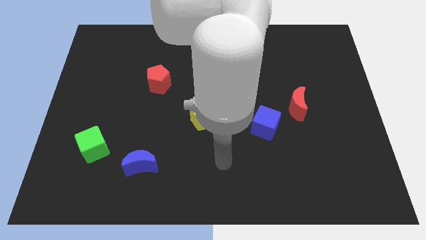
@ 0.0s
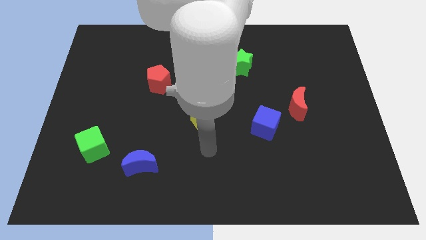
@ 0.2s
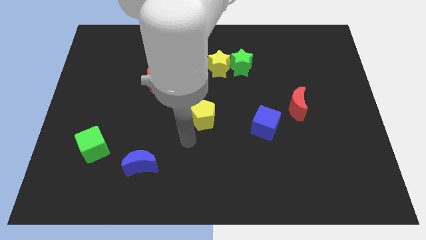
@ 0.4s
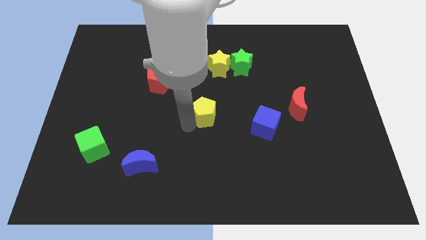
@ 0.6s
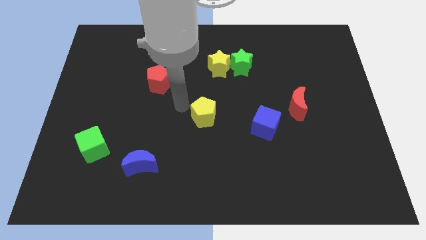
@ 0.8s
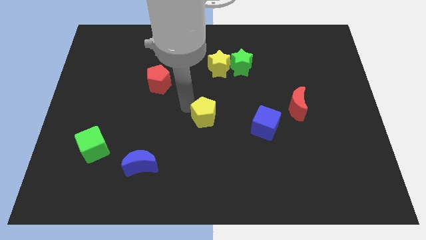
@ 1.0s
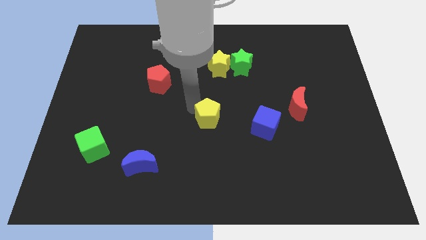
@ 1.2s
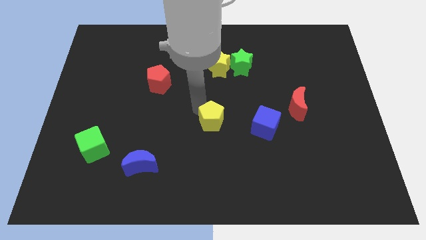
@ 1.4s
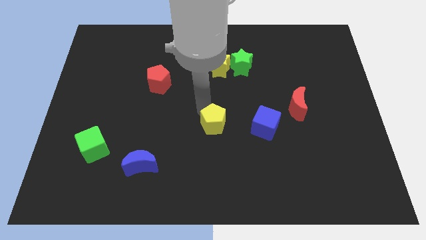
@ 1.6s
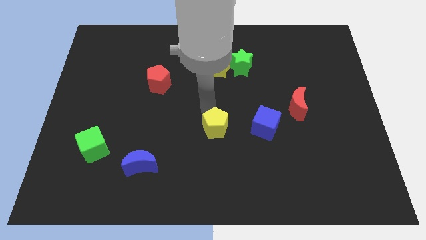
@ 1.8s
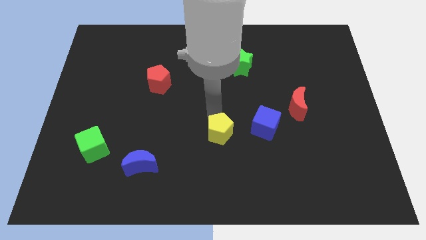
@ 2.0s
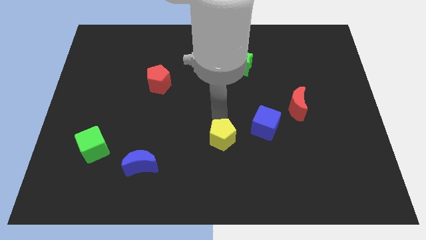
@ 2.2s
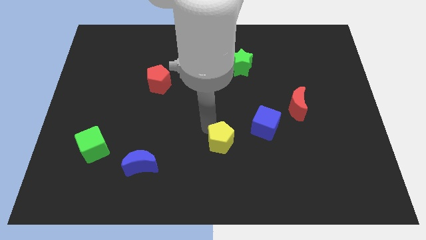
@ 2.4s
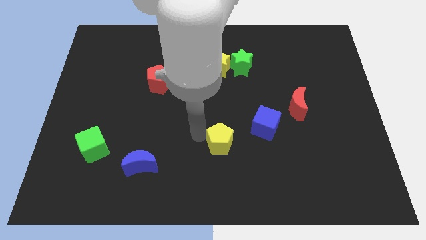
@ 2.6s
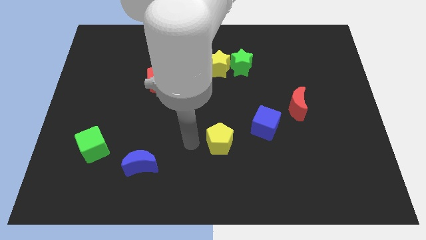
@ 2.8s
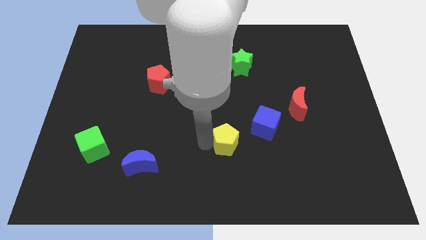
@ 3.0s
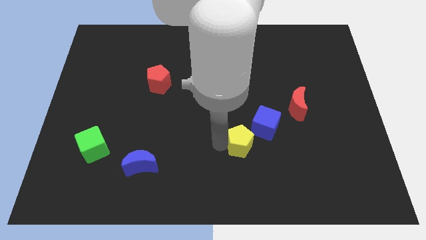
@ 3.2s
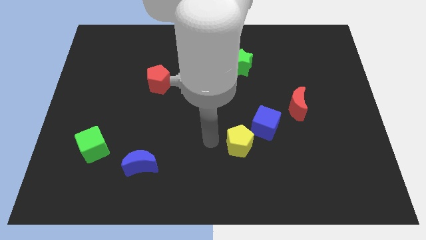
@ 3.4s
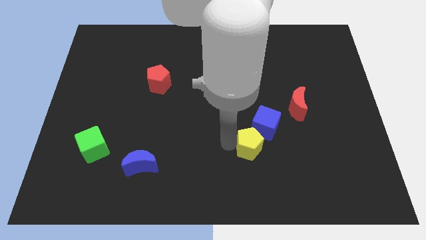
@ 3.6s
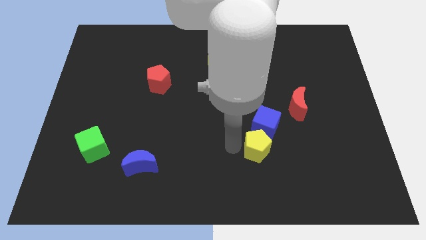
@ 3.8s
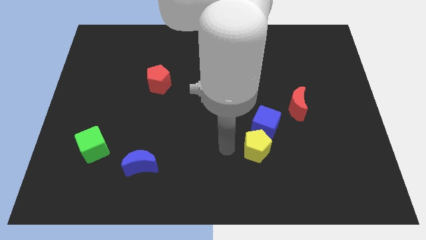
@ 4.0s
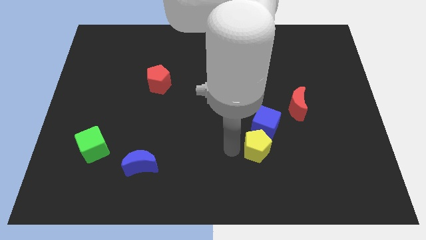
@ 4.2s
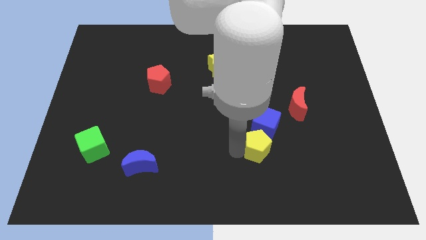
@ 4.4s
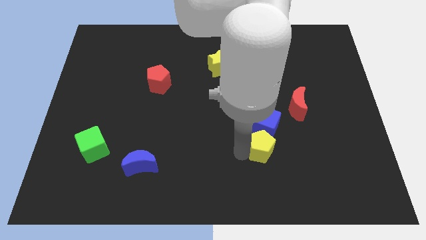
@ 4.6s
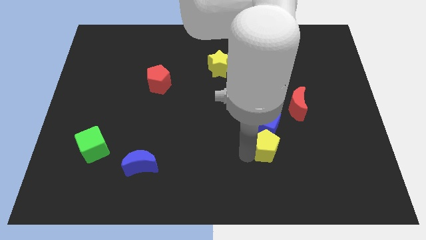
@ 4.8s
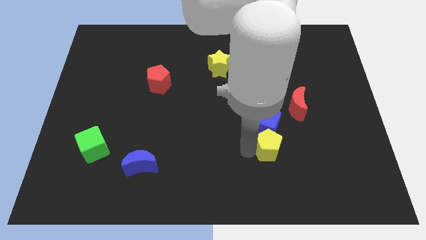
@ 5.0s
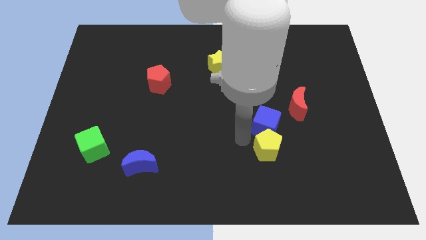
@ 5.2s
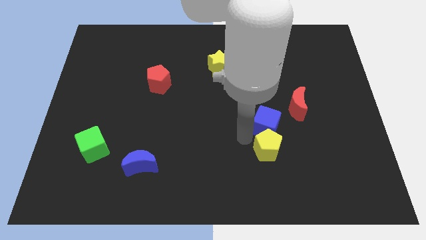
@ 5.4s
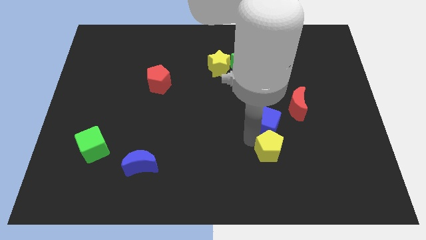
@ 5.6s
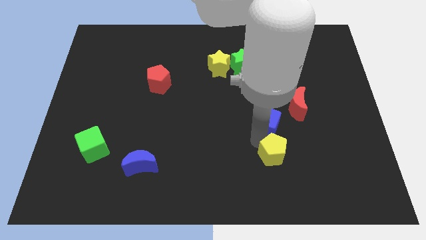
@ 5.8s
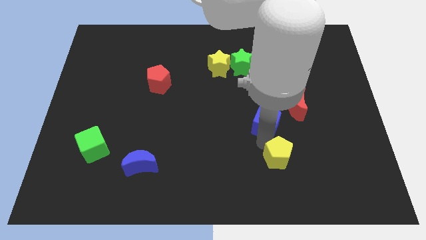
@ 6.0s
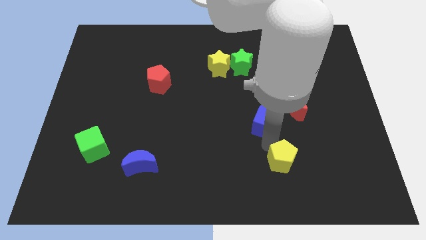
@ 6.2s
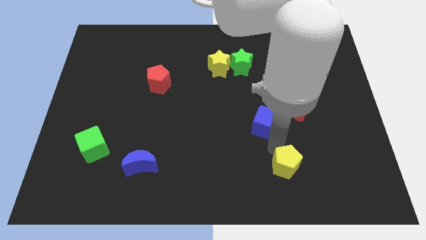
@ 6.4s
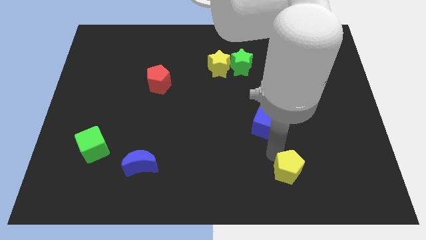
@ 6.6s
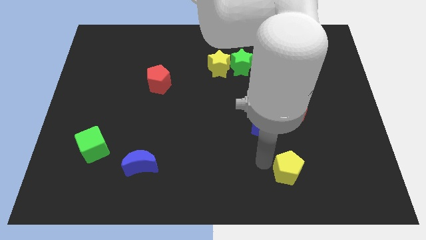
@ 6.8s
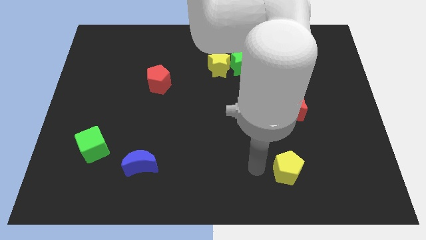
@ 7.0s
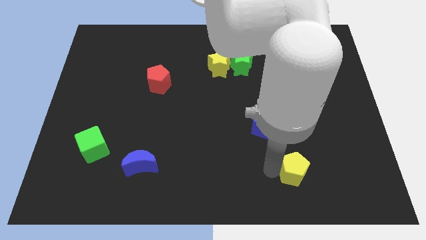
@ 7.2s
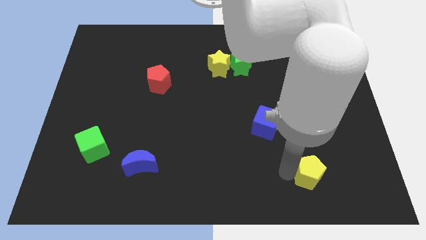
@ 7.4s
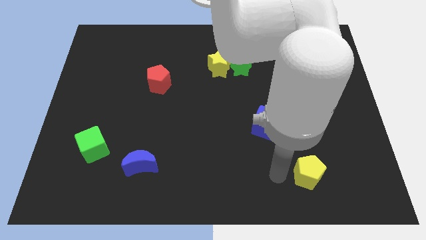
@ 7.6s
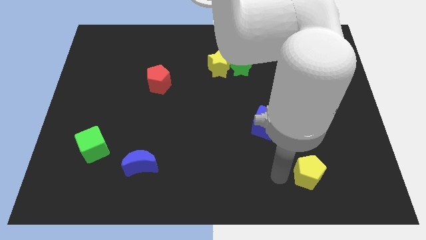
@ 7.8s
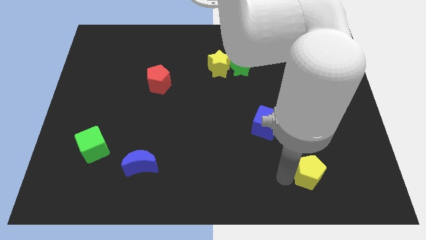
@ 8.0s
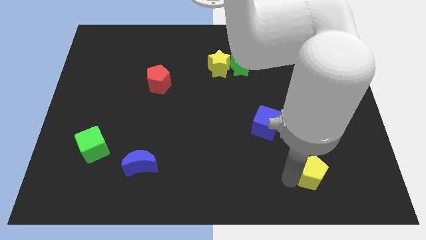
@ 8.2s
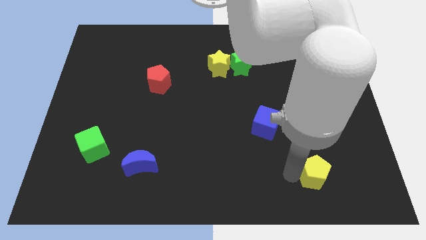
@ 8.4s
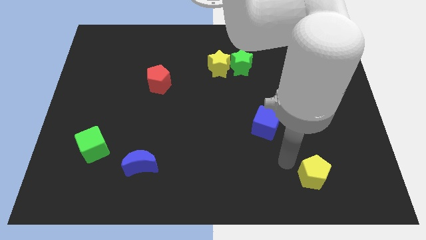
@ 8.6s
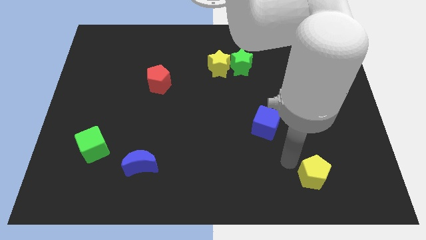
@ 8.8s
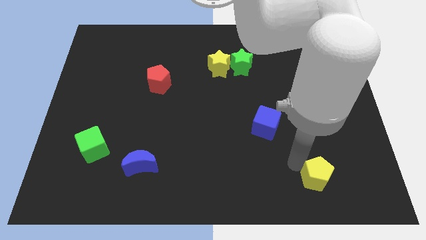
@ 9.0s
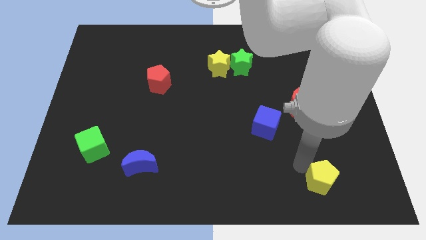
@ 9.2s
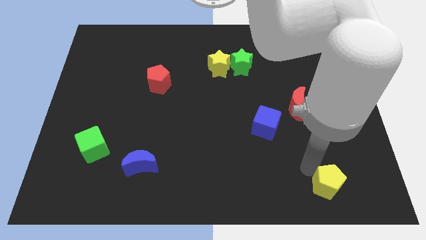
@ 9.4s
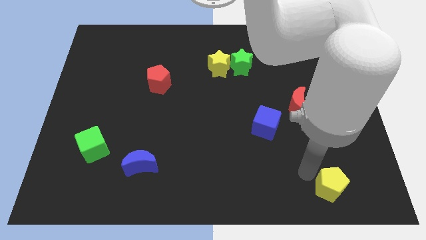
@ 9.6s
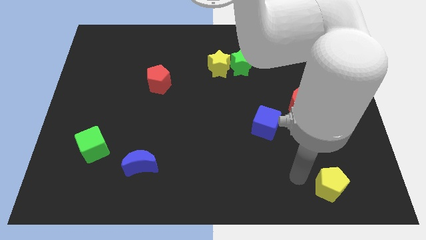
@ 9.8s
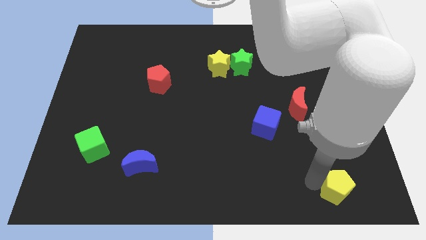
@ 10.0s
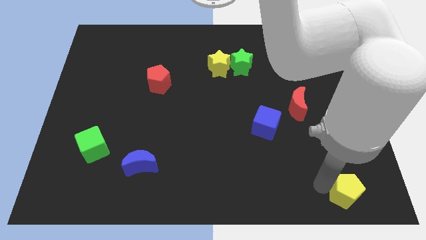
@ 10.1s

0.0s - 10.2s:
put the yellow pentagon to the bottom right corner

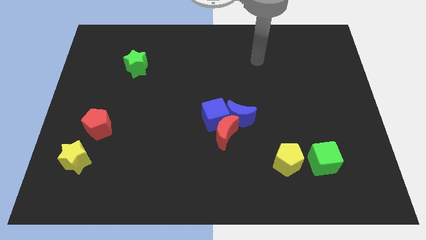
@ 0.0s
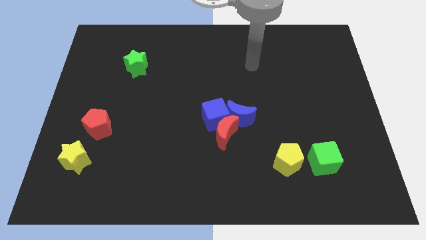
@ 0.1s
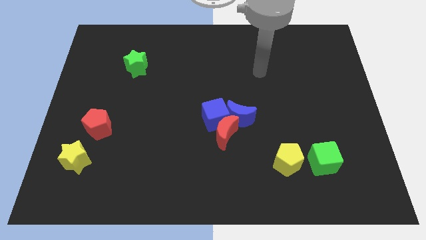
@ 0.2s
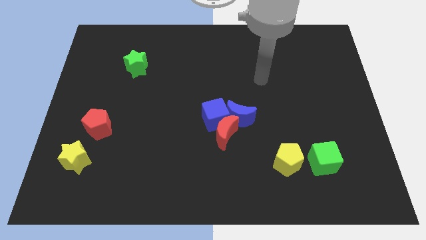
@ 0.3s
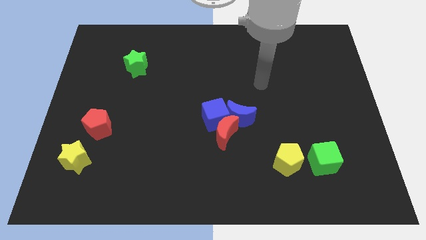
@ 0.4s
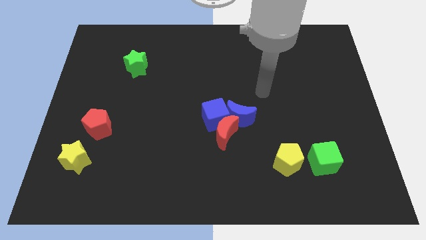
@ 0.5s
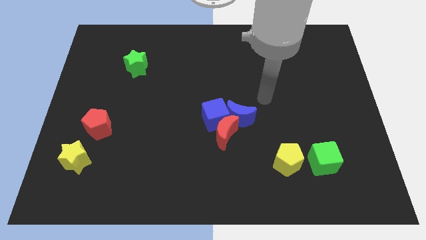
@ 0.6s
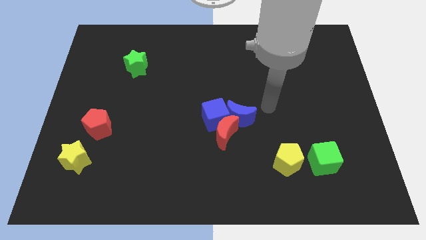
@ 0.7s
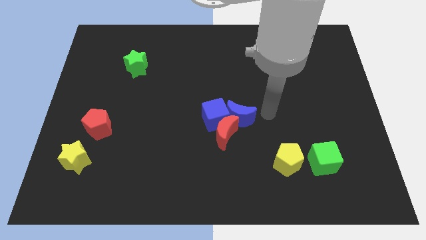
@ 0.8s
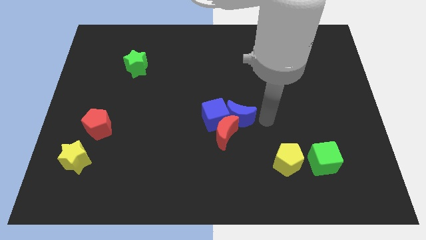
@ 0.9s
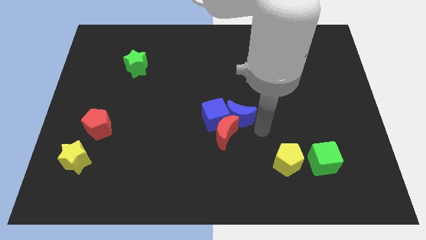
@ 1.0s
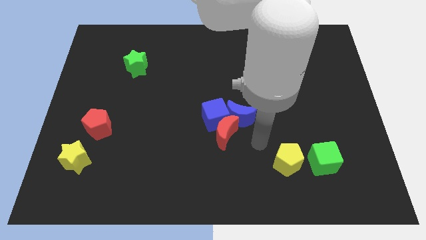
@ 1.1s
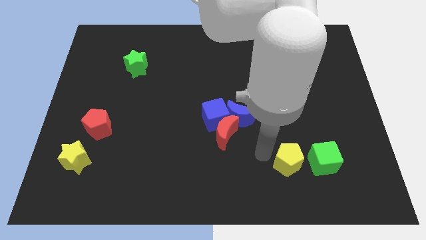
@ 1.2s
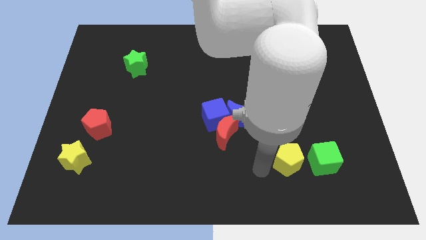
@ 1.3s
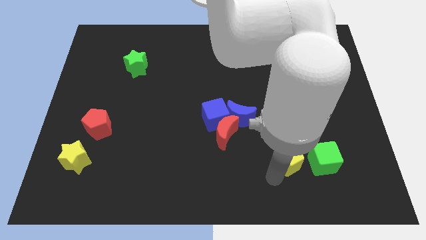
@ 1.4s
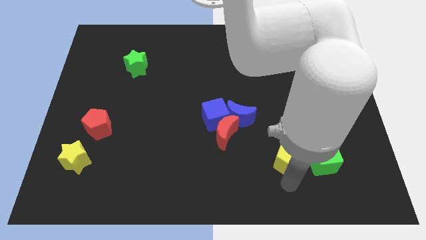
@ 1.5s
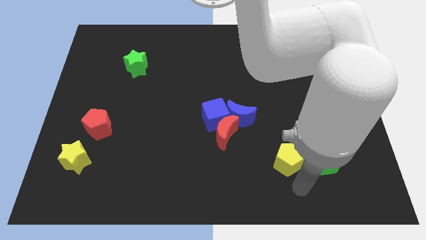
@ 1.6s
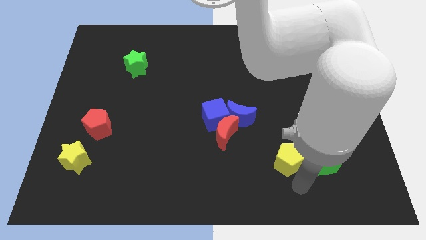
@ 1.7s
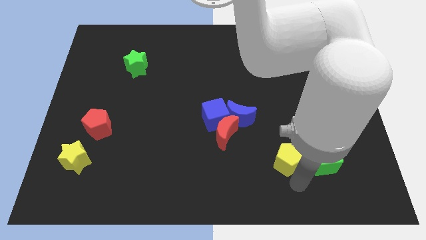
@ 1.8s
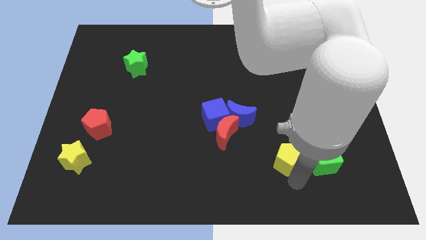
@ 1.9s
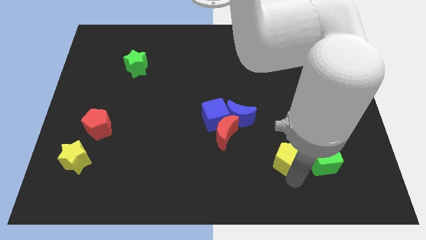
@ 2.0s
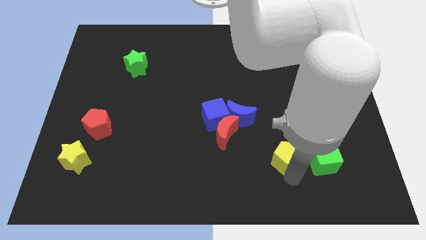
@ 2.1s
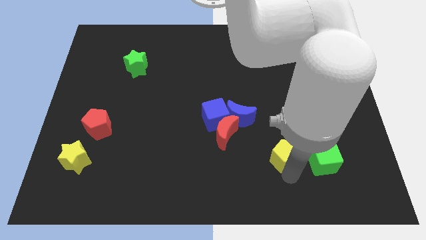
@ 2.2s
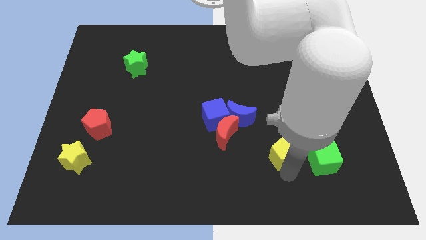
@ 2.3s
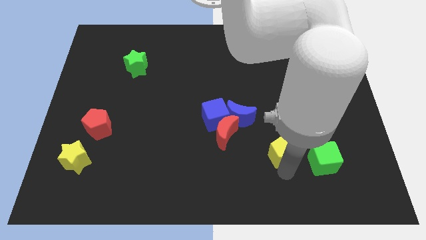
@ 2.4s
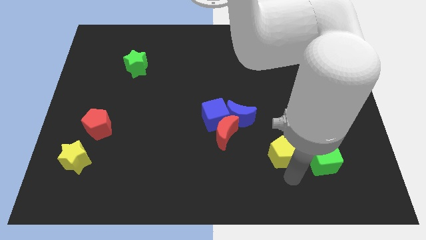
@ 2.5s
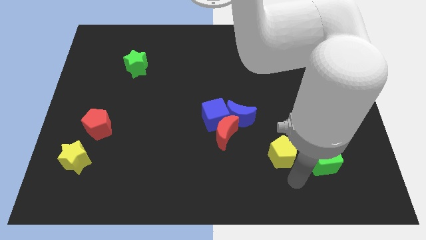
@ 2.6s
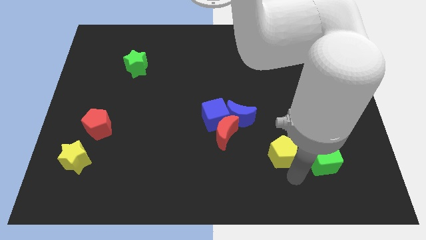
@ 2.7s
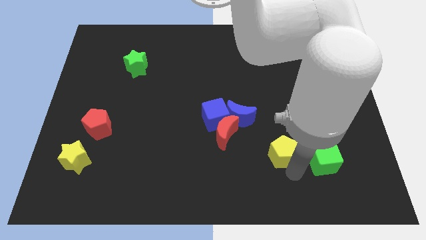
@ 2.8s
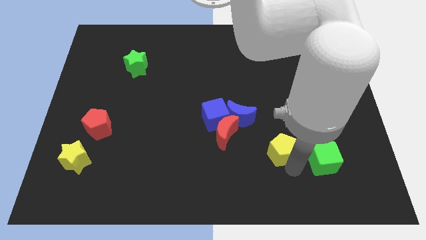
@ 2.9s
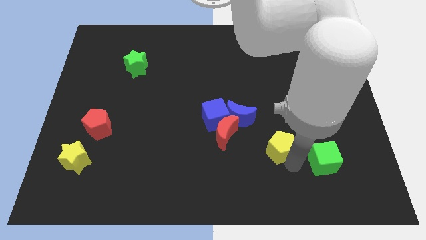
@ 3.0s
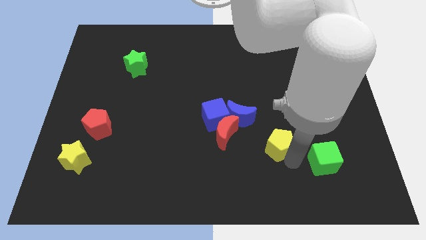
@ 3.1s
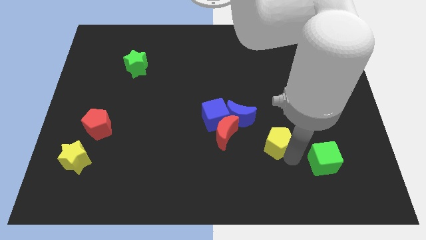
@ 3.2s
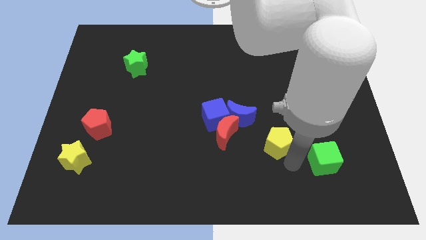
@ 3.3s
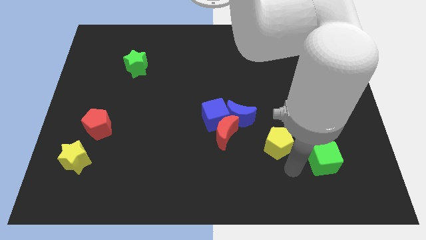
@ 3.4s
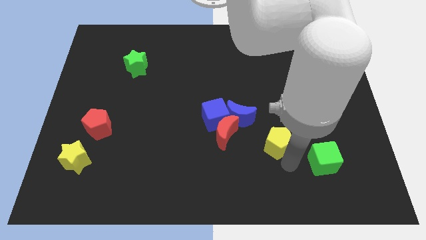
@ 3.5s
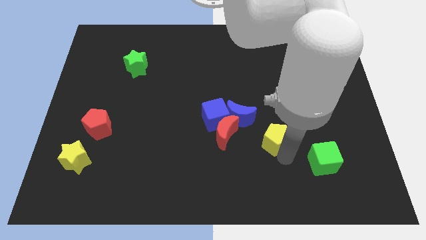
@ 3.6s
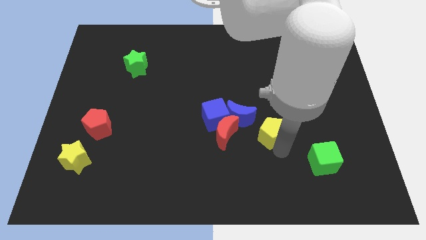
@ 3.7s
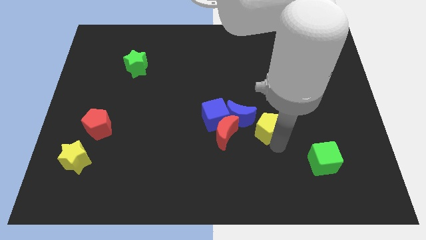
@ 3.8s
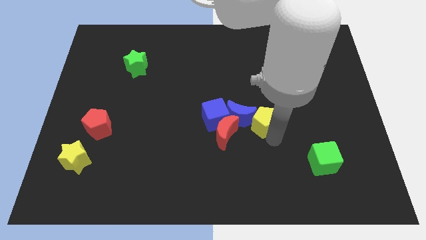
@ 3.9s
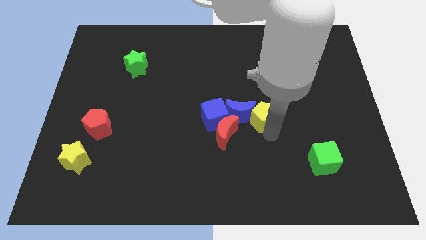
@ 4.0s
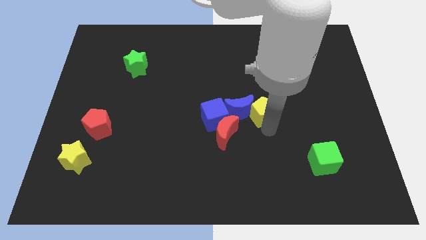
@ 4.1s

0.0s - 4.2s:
push the yellow pentagon to the center
